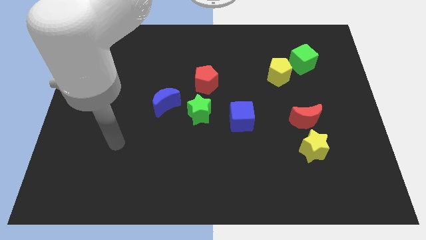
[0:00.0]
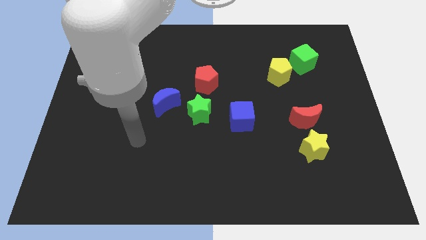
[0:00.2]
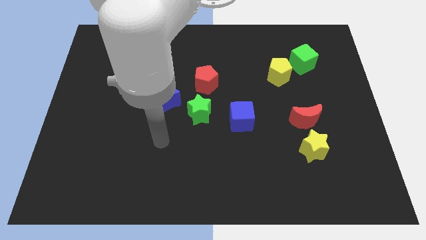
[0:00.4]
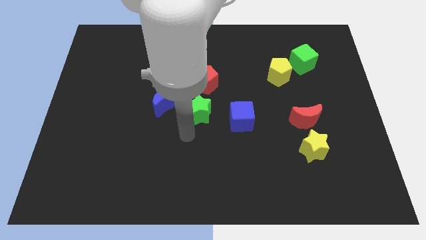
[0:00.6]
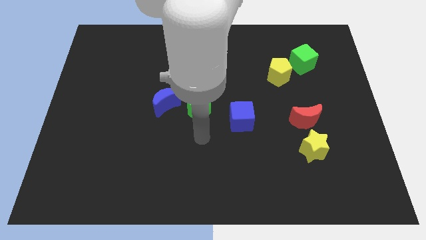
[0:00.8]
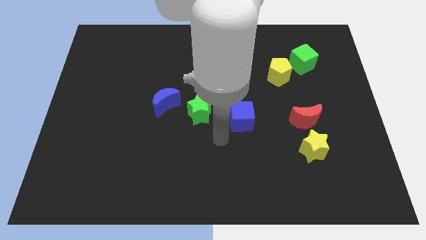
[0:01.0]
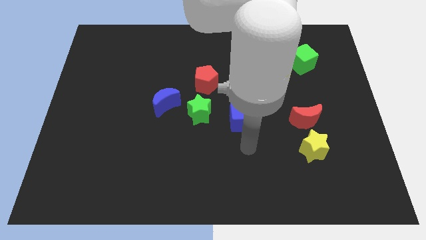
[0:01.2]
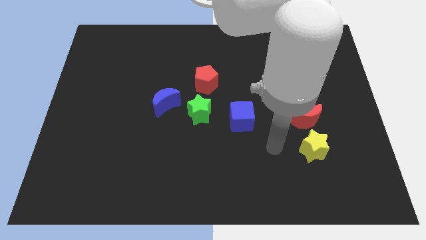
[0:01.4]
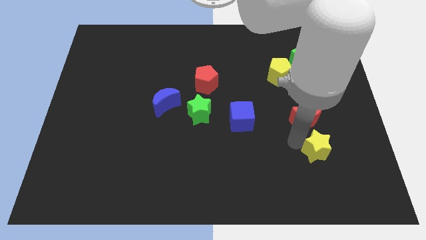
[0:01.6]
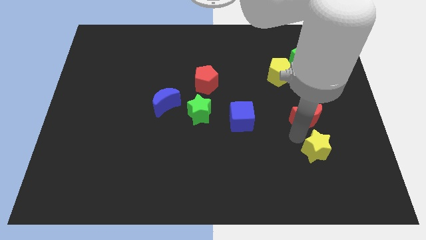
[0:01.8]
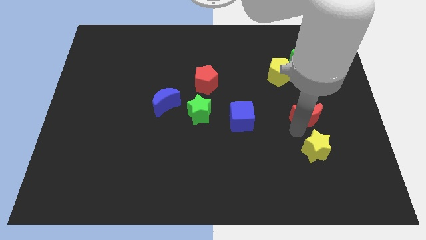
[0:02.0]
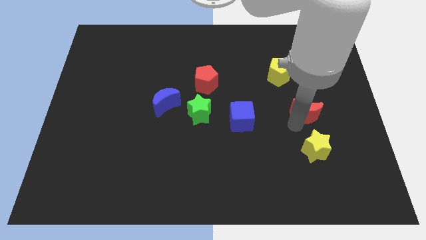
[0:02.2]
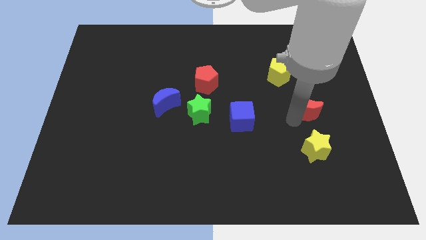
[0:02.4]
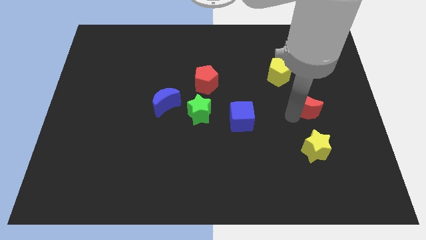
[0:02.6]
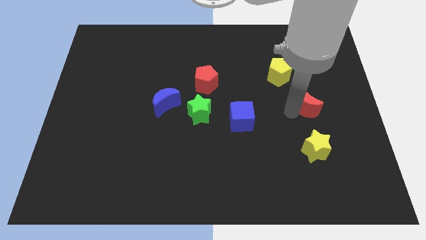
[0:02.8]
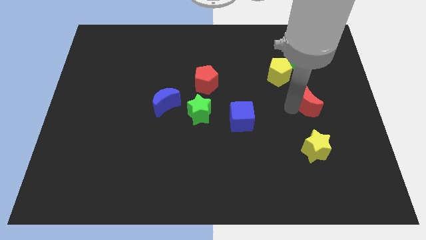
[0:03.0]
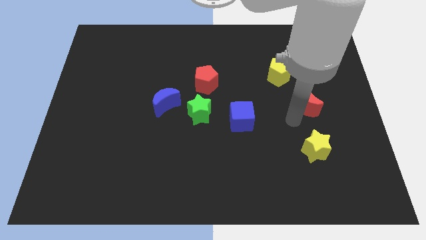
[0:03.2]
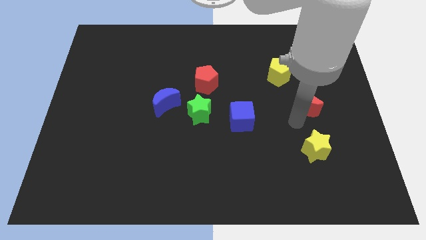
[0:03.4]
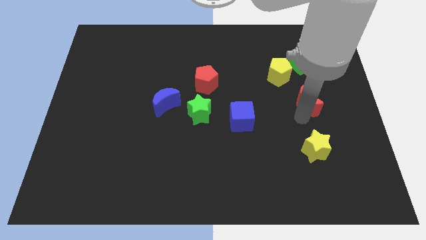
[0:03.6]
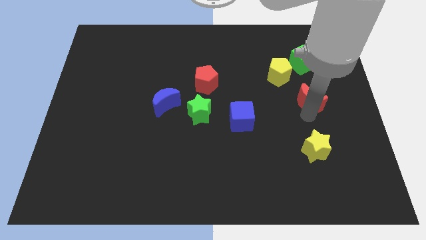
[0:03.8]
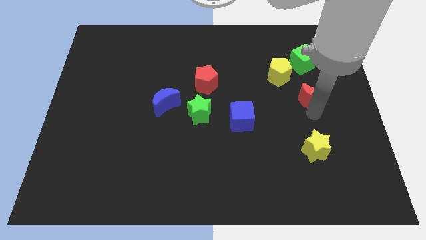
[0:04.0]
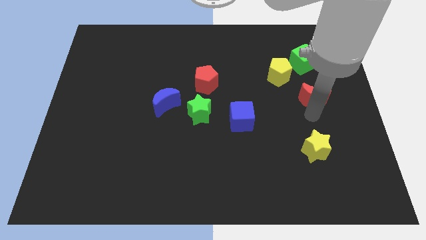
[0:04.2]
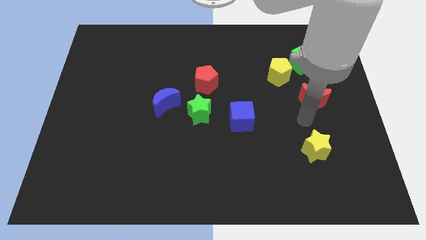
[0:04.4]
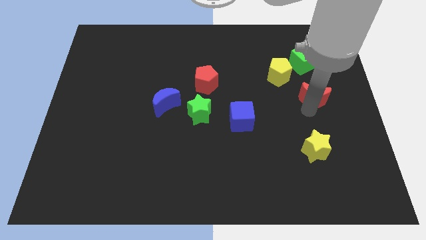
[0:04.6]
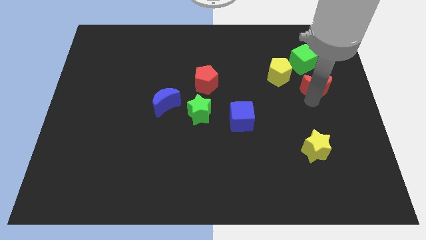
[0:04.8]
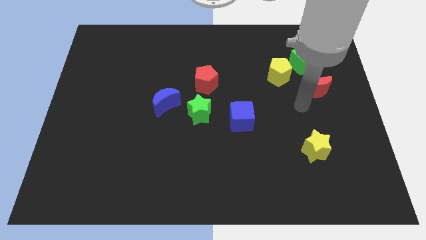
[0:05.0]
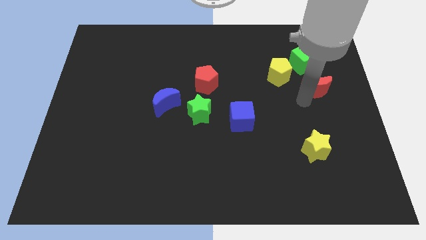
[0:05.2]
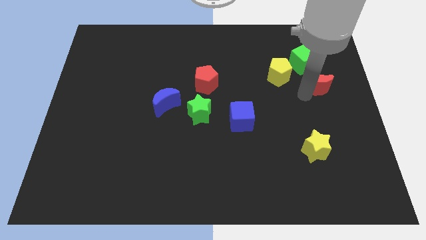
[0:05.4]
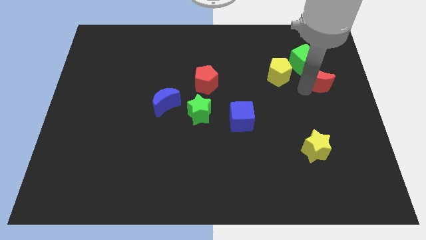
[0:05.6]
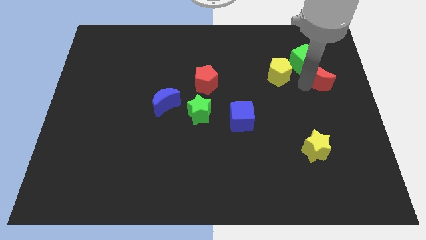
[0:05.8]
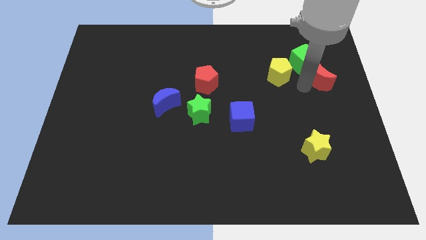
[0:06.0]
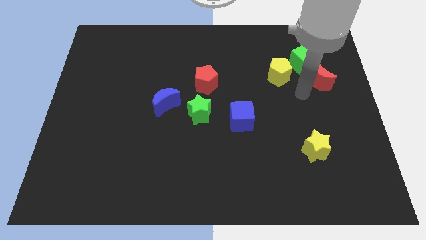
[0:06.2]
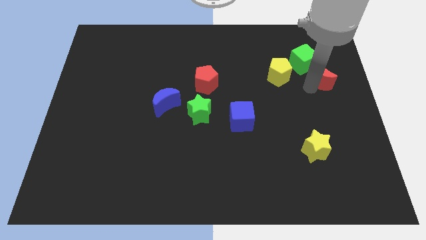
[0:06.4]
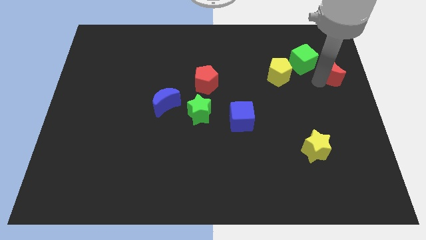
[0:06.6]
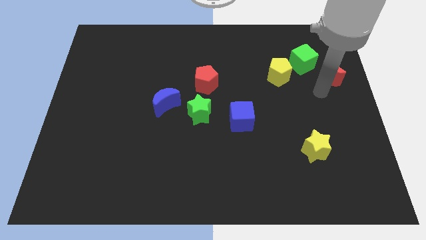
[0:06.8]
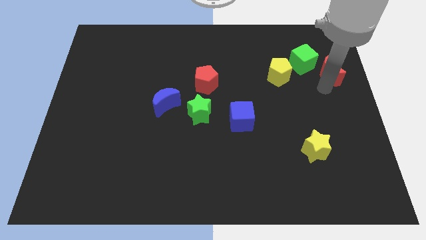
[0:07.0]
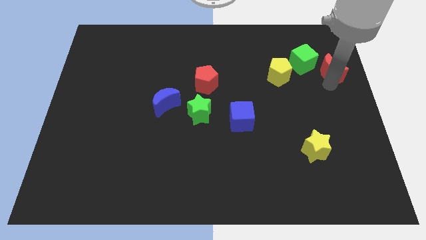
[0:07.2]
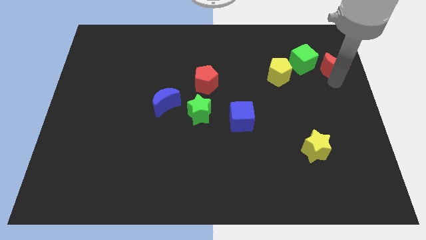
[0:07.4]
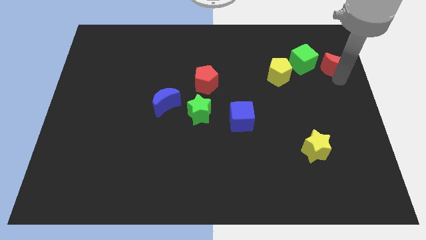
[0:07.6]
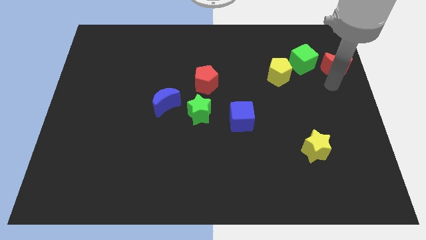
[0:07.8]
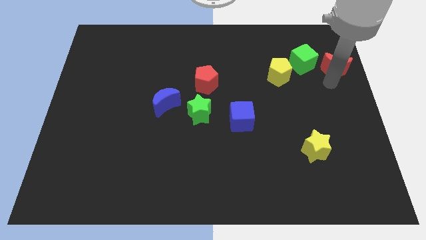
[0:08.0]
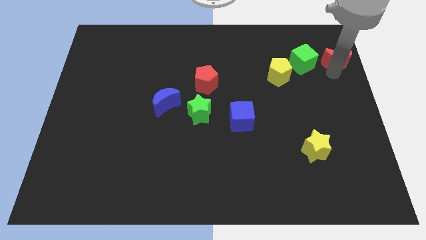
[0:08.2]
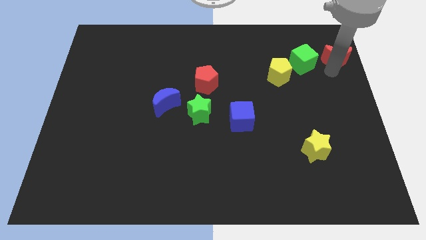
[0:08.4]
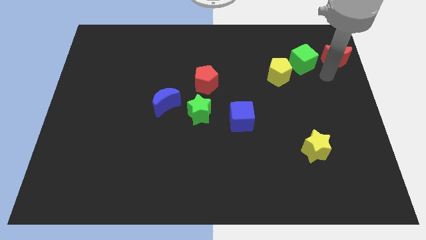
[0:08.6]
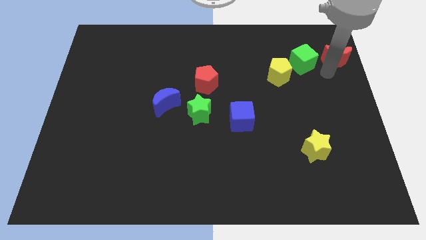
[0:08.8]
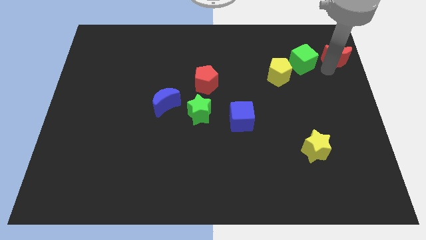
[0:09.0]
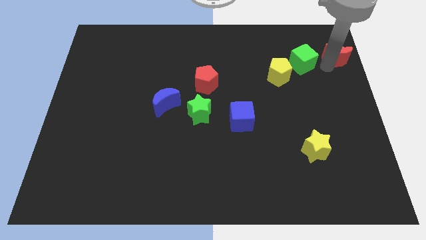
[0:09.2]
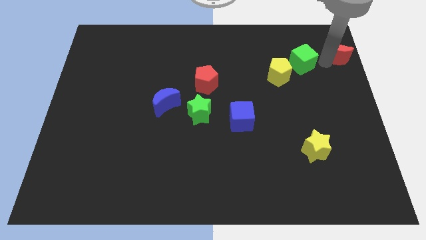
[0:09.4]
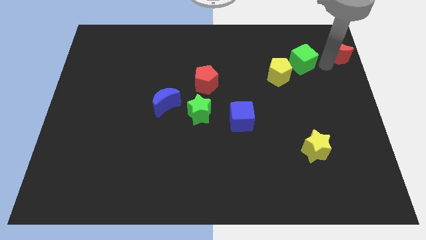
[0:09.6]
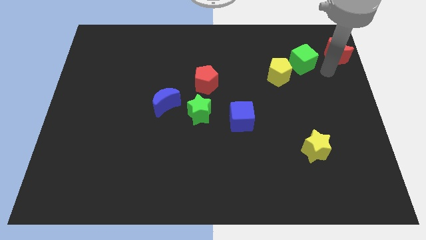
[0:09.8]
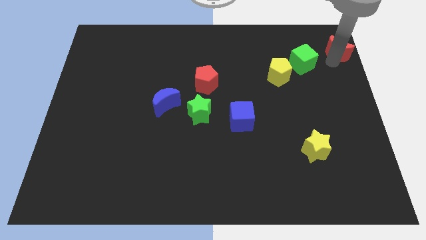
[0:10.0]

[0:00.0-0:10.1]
slide the red moon to the upper right corner

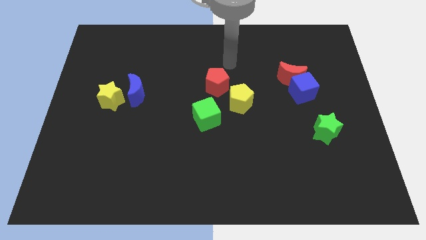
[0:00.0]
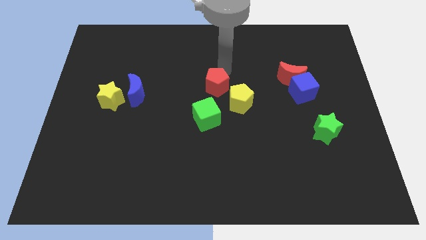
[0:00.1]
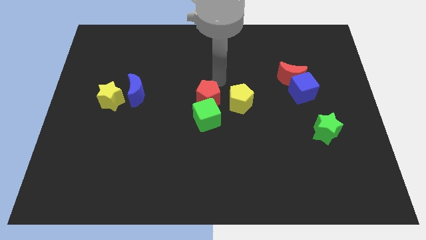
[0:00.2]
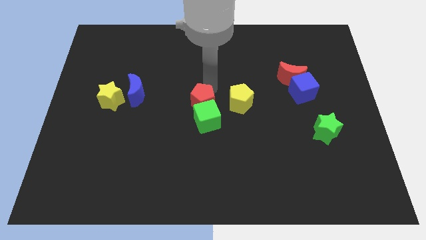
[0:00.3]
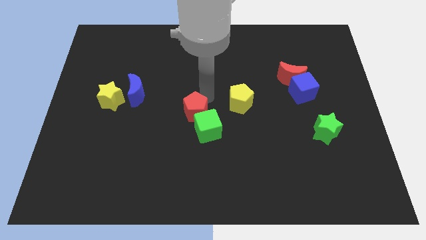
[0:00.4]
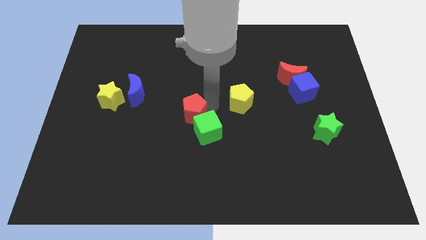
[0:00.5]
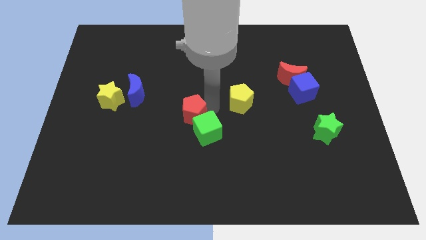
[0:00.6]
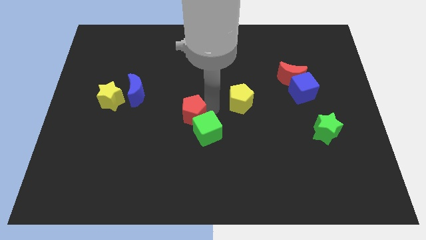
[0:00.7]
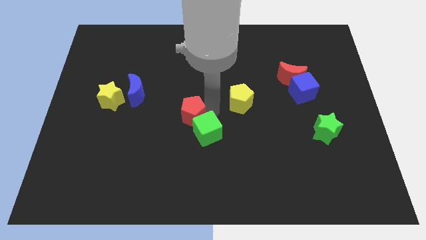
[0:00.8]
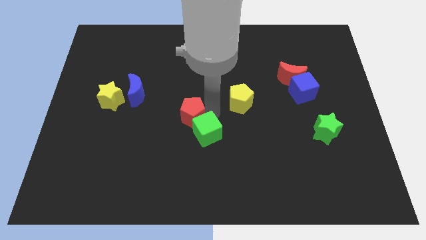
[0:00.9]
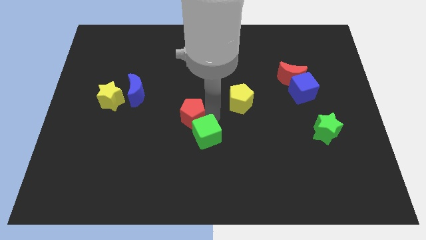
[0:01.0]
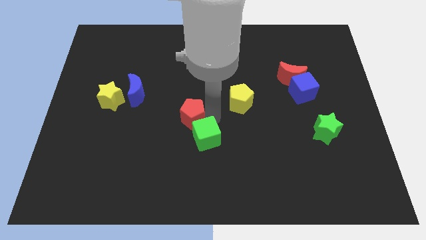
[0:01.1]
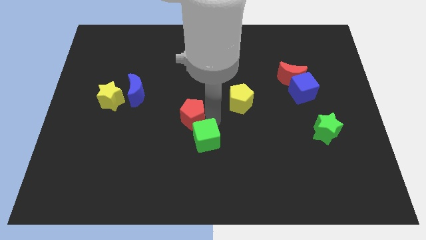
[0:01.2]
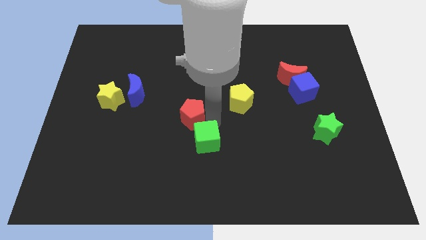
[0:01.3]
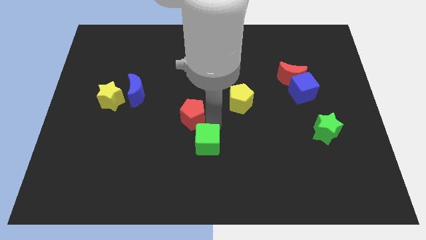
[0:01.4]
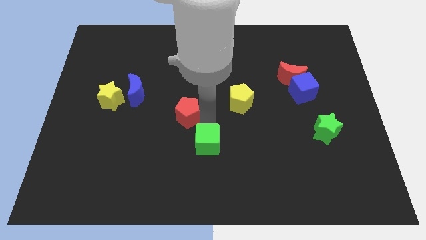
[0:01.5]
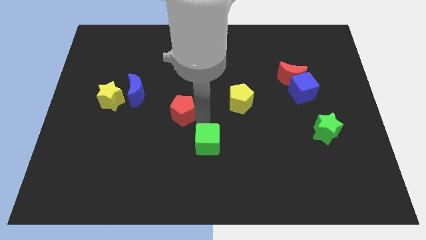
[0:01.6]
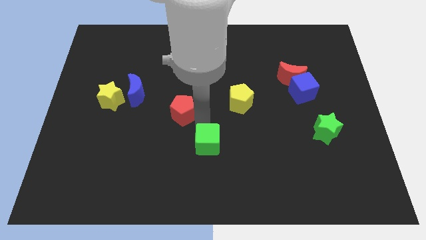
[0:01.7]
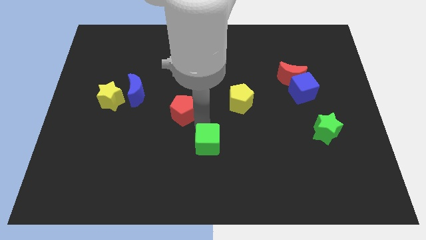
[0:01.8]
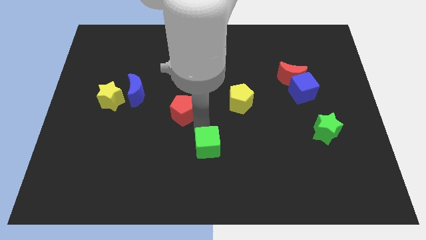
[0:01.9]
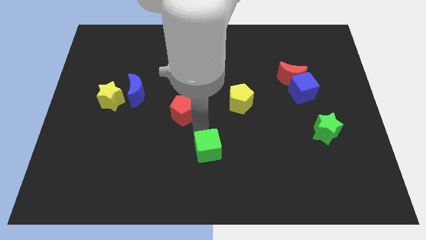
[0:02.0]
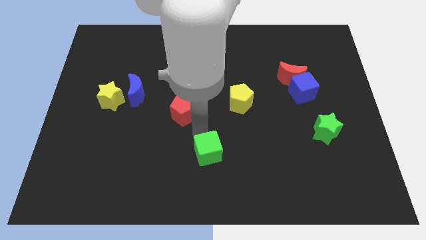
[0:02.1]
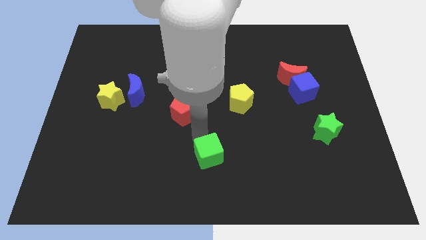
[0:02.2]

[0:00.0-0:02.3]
put the green cube to the bottom side
